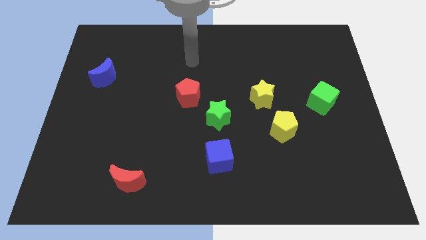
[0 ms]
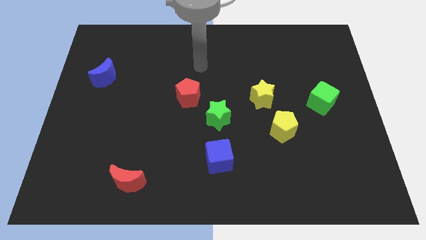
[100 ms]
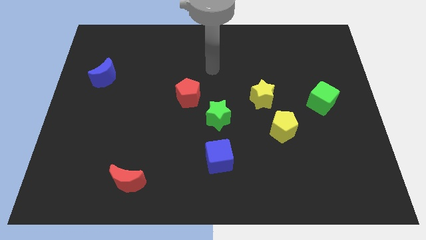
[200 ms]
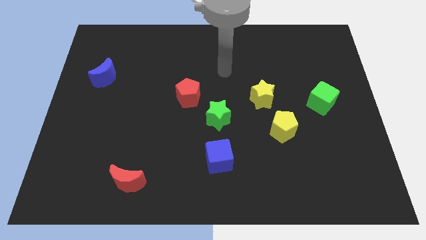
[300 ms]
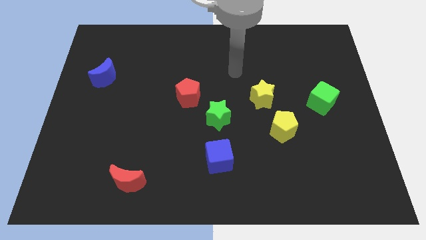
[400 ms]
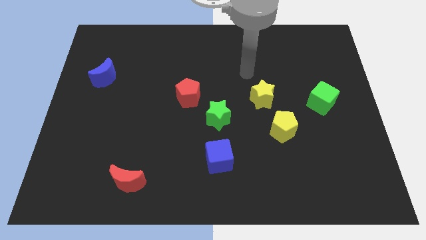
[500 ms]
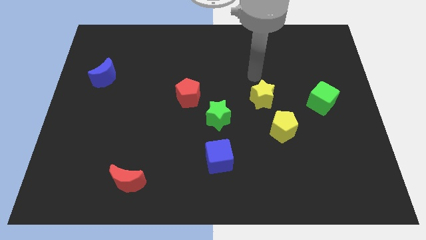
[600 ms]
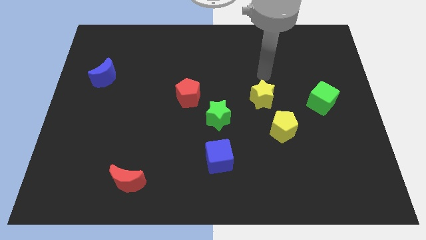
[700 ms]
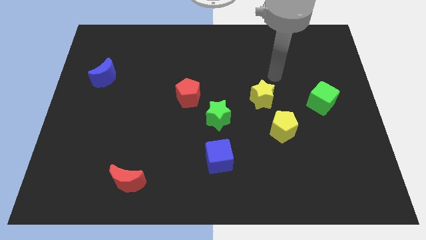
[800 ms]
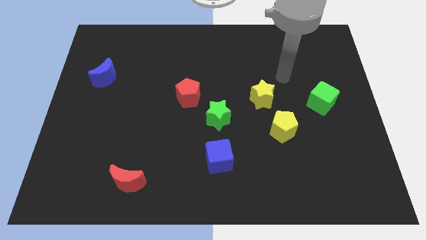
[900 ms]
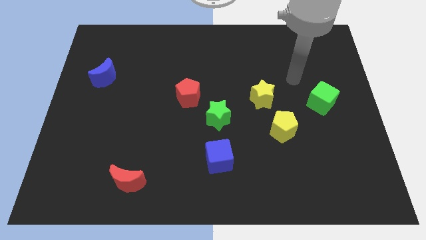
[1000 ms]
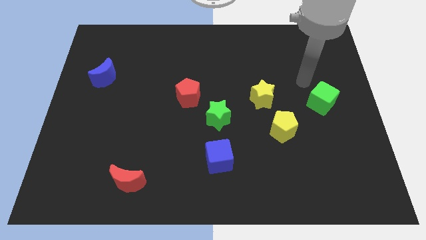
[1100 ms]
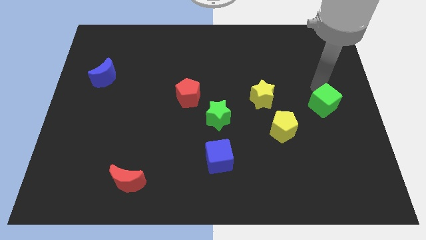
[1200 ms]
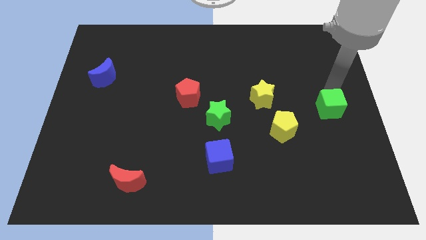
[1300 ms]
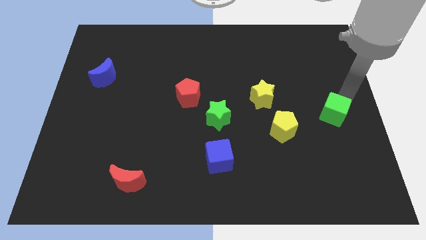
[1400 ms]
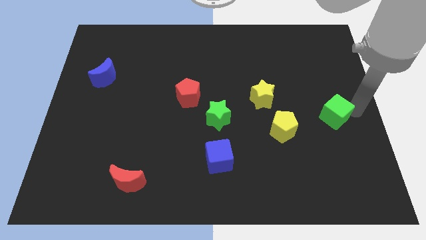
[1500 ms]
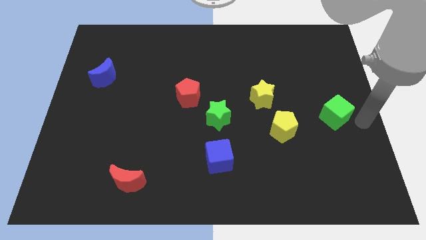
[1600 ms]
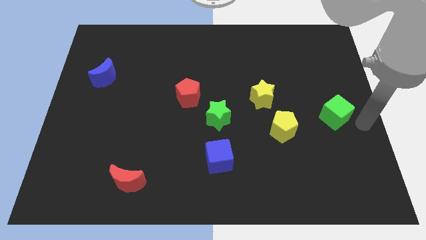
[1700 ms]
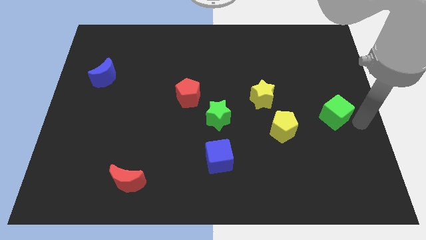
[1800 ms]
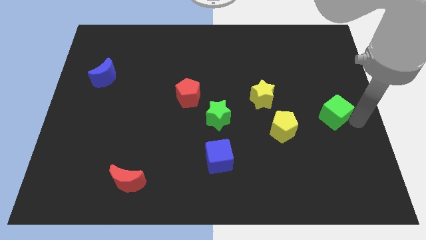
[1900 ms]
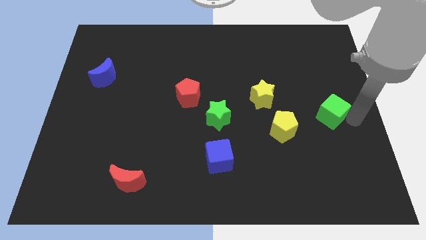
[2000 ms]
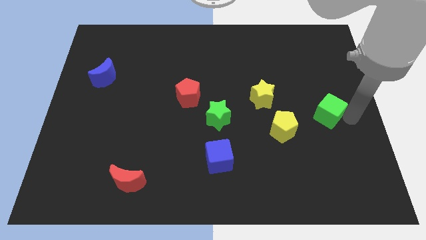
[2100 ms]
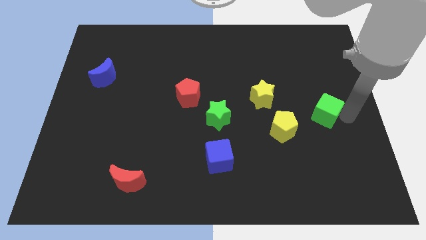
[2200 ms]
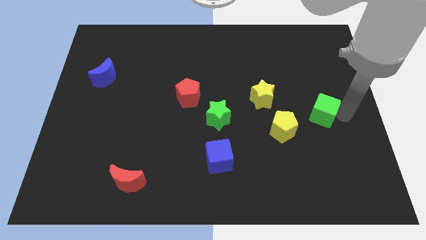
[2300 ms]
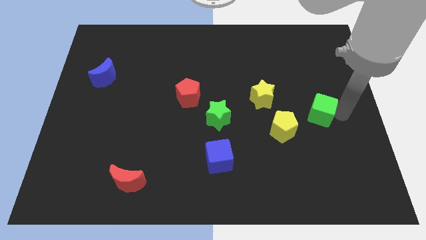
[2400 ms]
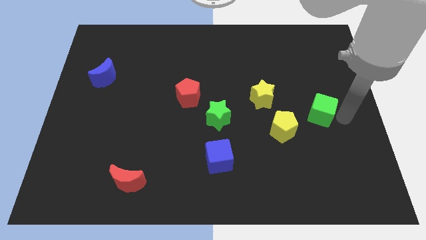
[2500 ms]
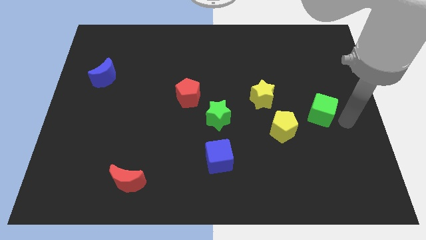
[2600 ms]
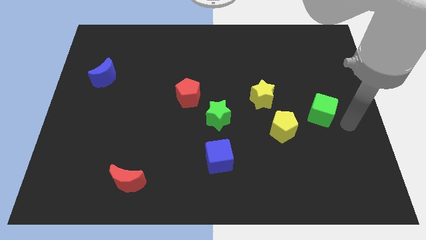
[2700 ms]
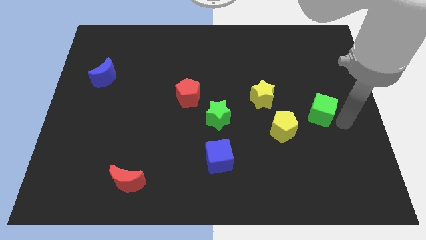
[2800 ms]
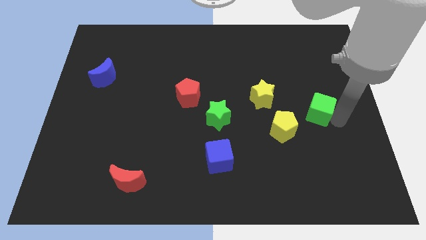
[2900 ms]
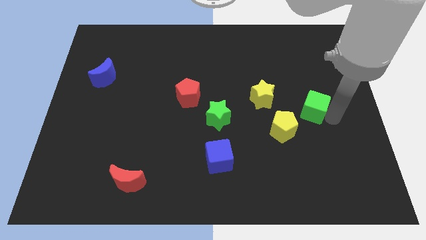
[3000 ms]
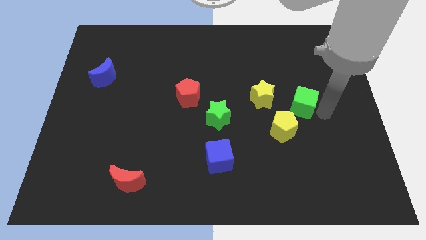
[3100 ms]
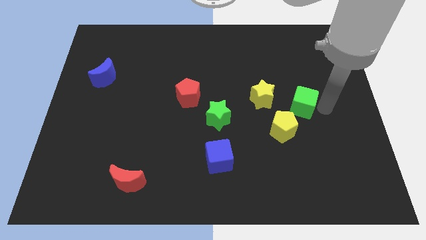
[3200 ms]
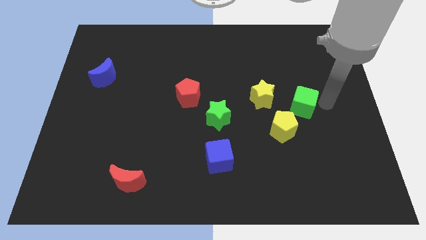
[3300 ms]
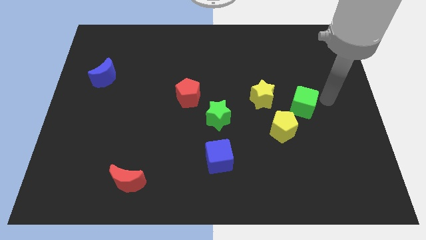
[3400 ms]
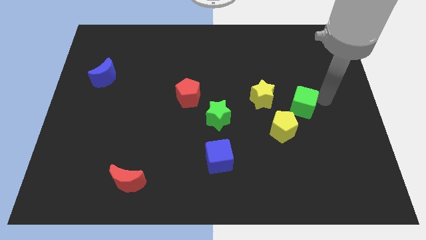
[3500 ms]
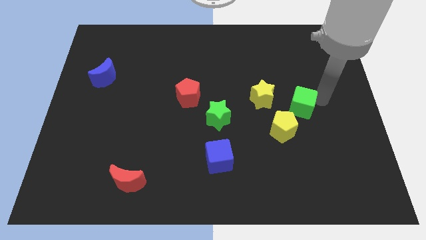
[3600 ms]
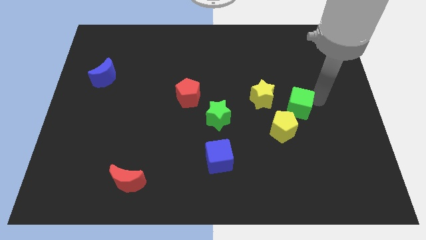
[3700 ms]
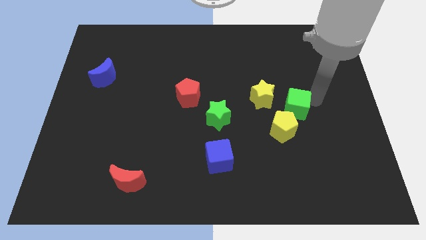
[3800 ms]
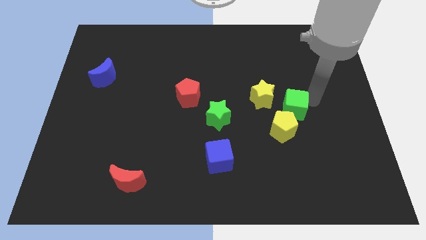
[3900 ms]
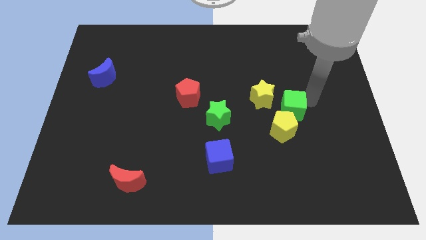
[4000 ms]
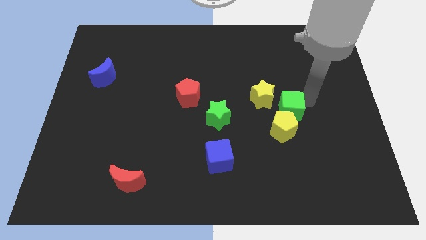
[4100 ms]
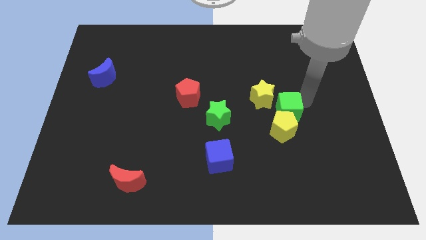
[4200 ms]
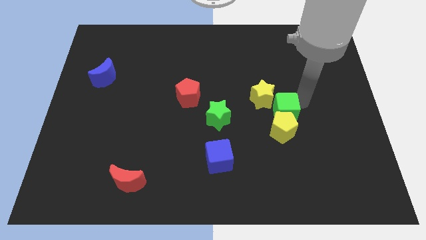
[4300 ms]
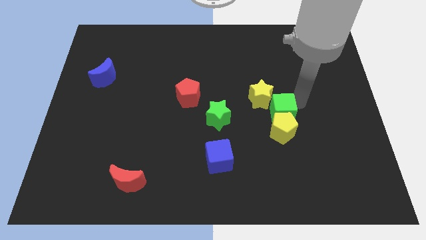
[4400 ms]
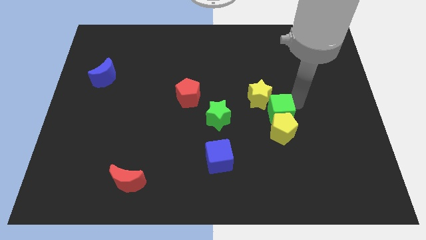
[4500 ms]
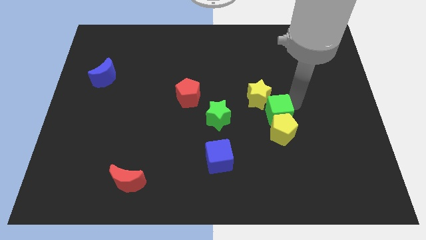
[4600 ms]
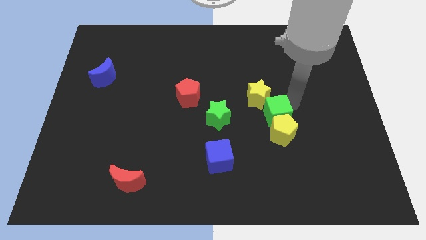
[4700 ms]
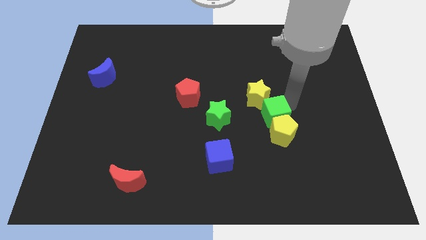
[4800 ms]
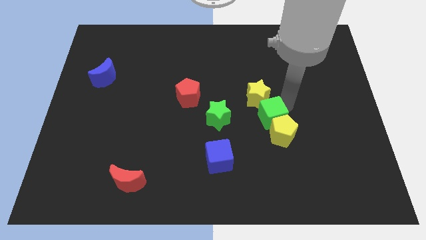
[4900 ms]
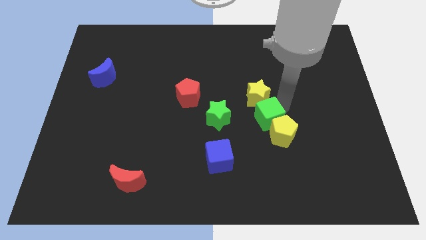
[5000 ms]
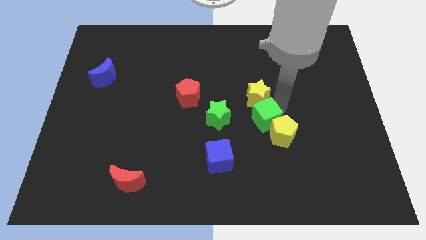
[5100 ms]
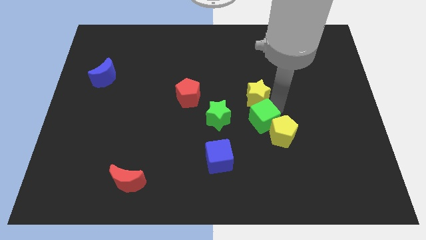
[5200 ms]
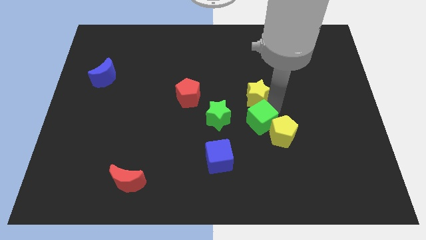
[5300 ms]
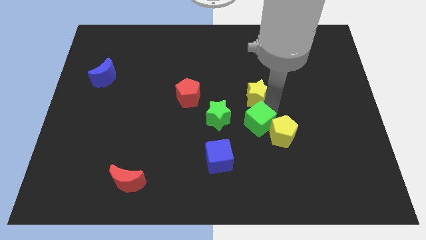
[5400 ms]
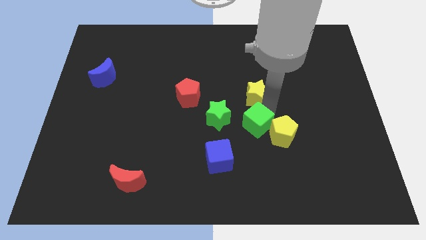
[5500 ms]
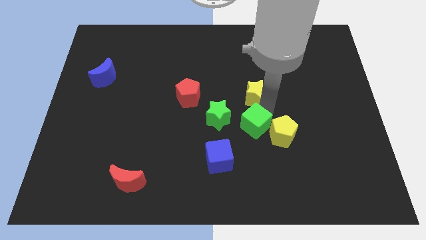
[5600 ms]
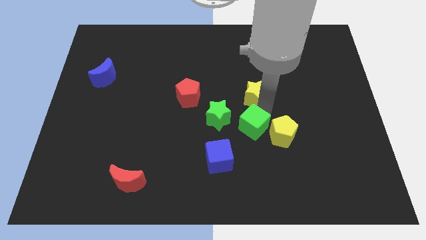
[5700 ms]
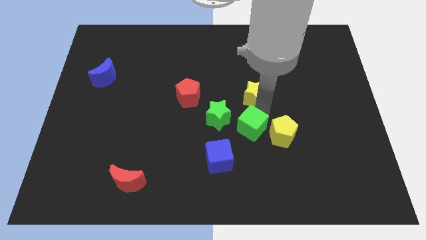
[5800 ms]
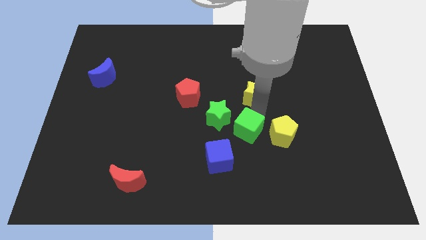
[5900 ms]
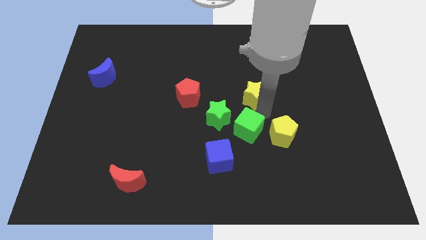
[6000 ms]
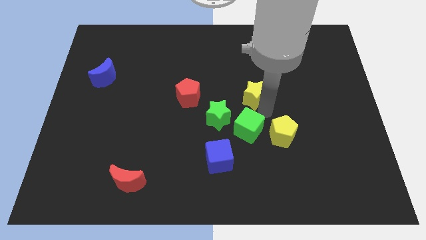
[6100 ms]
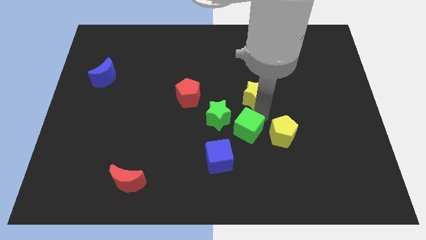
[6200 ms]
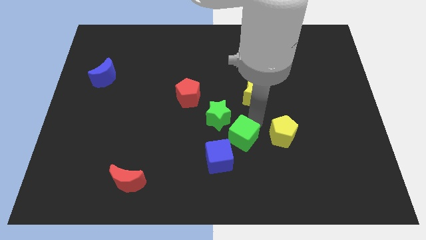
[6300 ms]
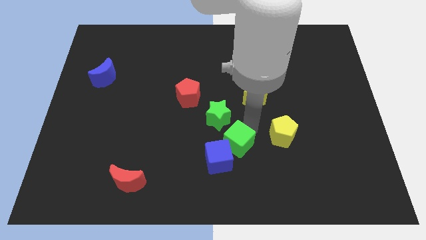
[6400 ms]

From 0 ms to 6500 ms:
slide the green cube towards the blue cube

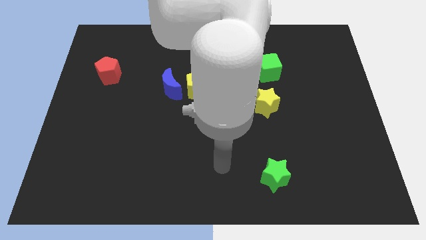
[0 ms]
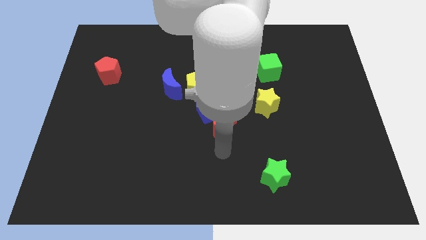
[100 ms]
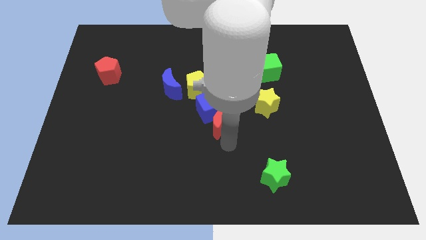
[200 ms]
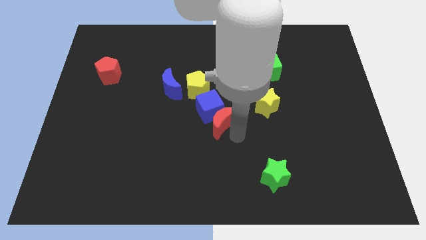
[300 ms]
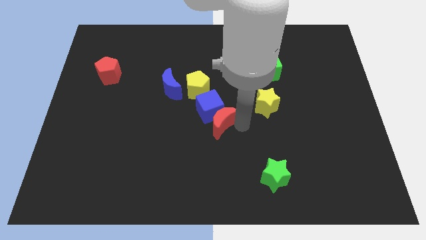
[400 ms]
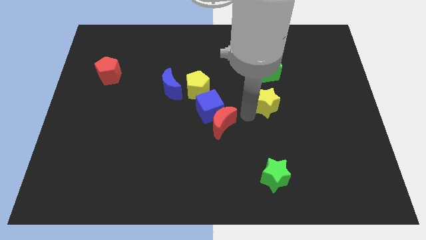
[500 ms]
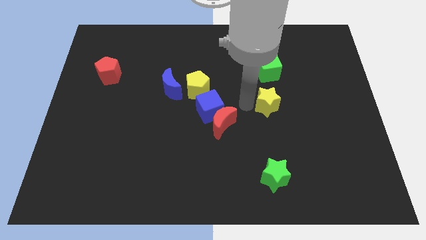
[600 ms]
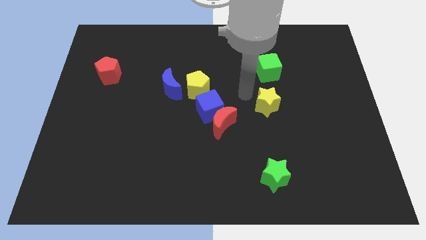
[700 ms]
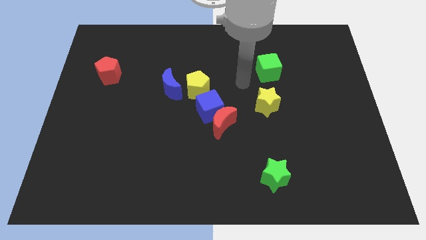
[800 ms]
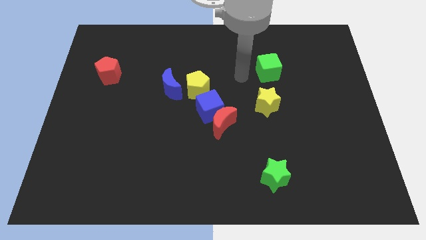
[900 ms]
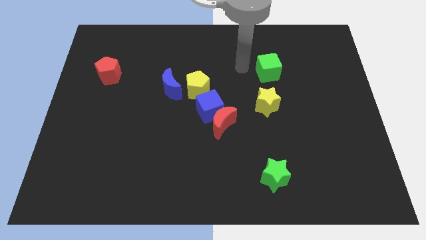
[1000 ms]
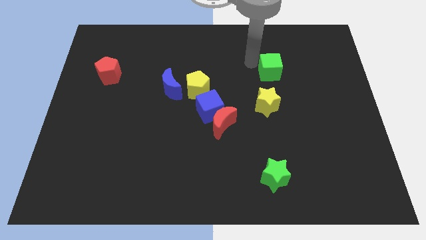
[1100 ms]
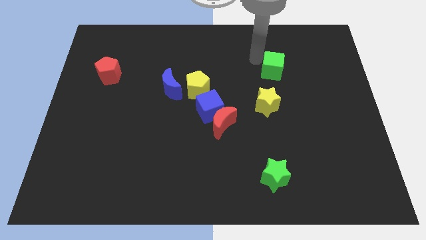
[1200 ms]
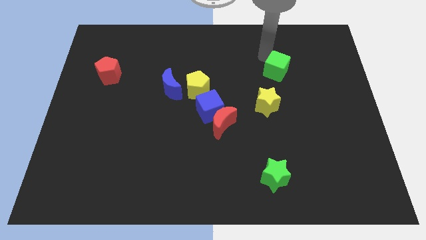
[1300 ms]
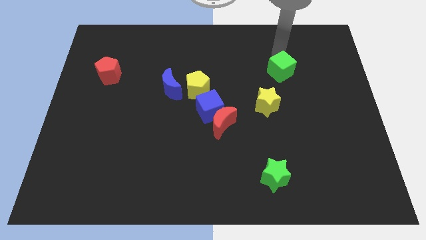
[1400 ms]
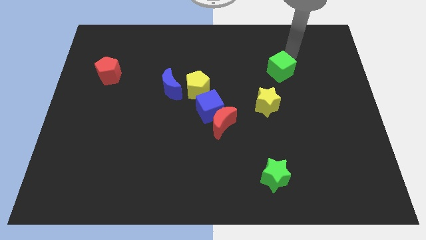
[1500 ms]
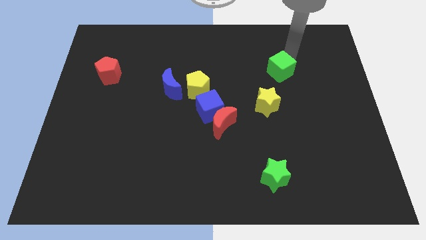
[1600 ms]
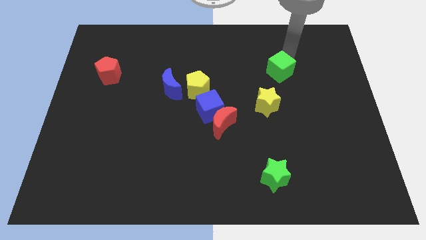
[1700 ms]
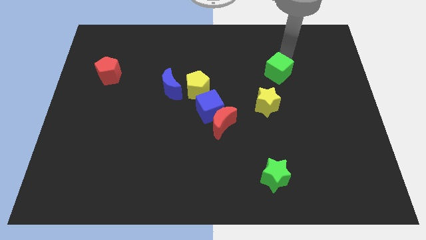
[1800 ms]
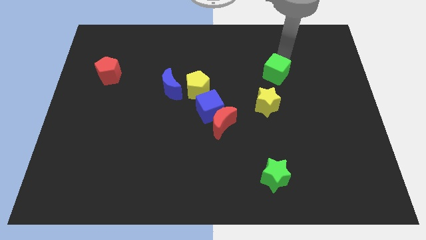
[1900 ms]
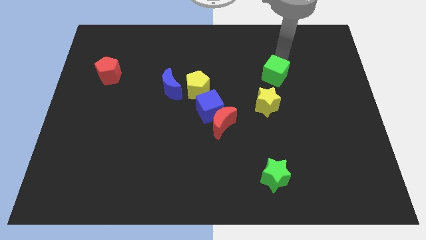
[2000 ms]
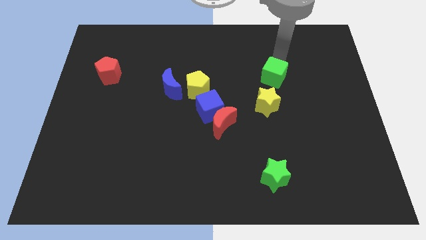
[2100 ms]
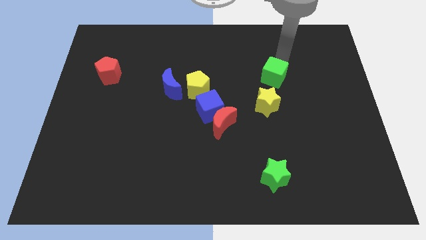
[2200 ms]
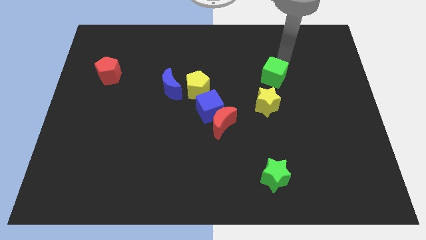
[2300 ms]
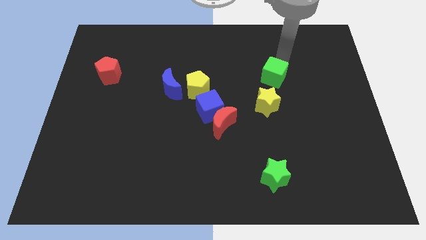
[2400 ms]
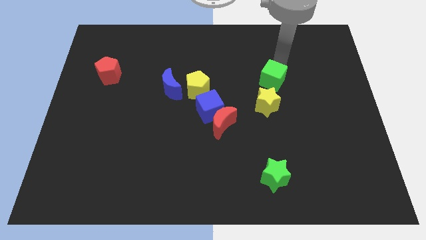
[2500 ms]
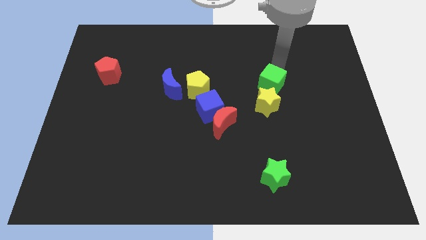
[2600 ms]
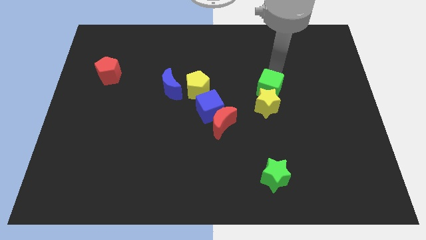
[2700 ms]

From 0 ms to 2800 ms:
put the green cube next to the yellow star
